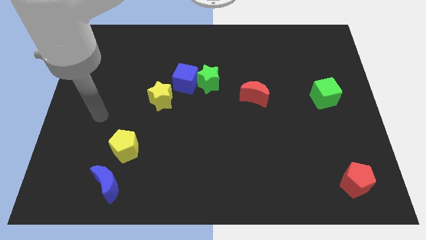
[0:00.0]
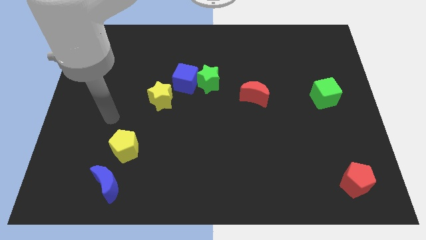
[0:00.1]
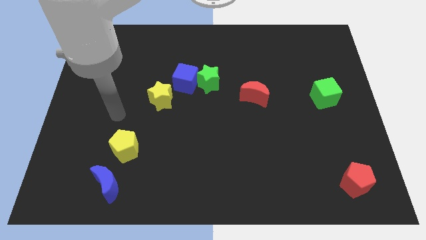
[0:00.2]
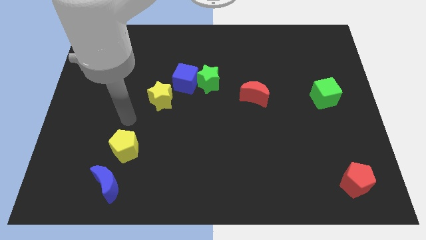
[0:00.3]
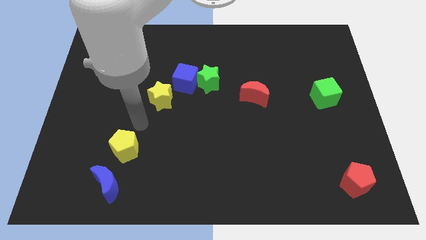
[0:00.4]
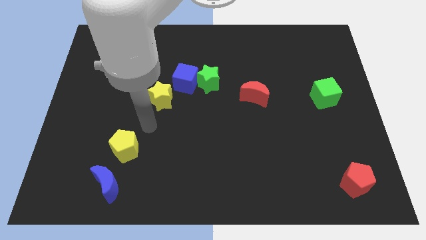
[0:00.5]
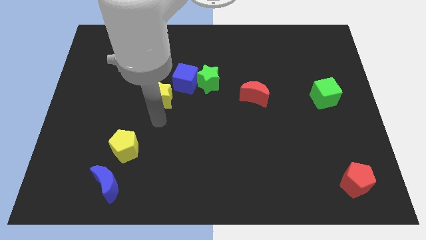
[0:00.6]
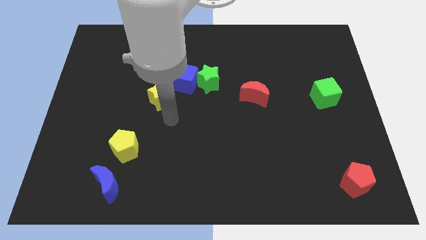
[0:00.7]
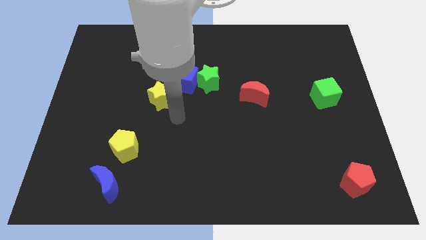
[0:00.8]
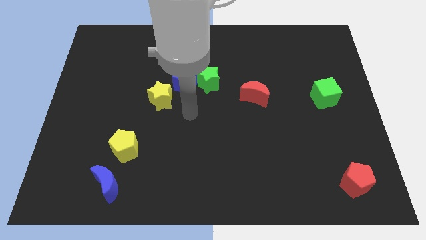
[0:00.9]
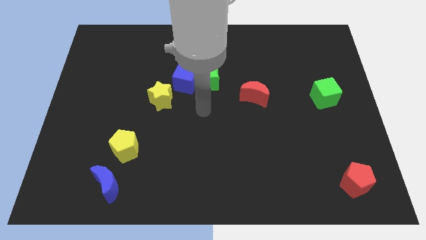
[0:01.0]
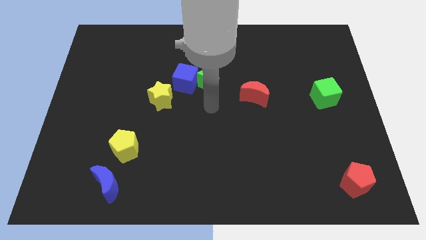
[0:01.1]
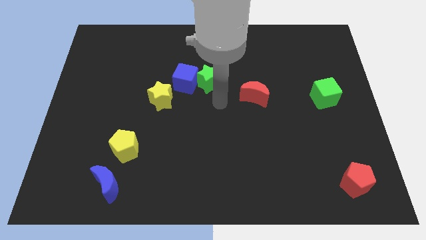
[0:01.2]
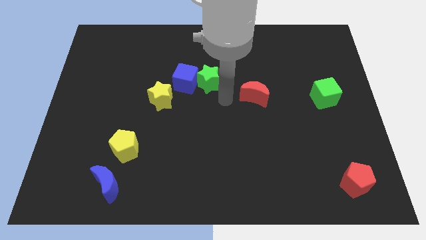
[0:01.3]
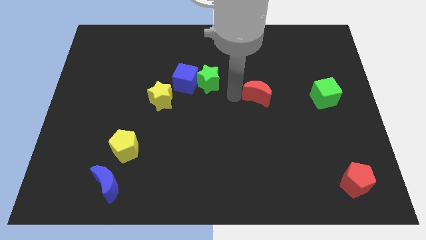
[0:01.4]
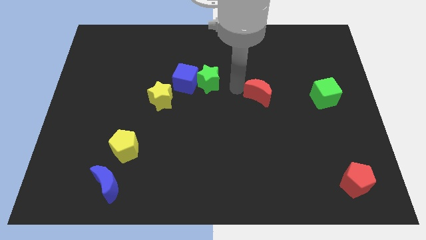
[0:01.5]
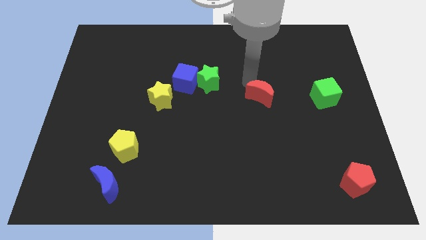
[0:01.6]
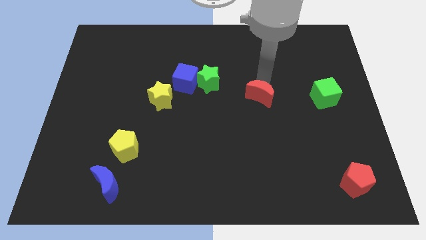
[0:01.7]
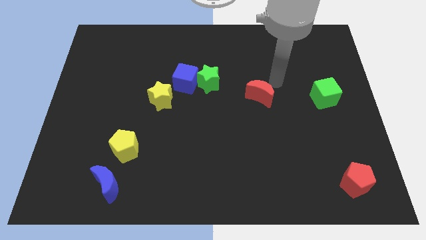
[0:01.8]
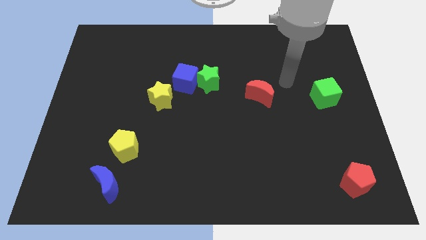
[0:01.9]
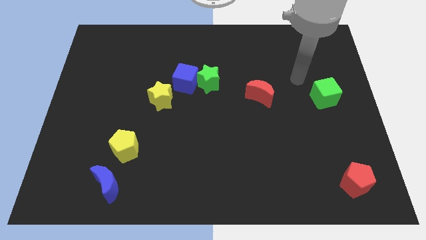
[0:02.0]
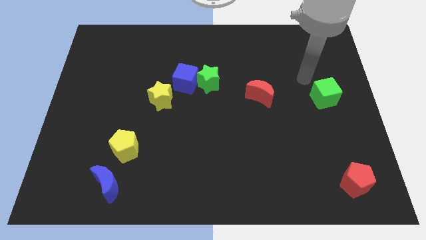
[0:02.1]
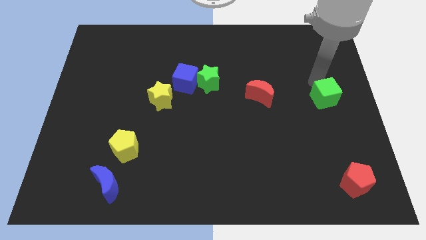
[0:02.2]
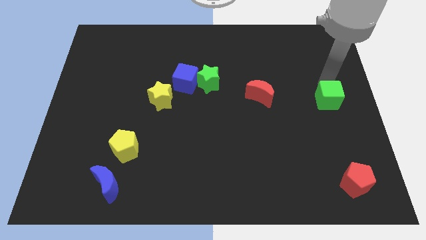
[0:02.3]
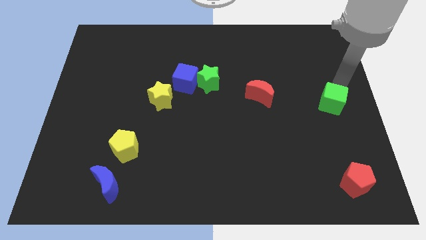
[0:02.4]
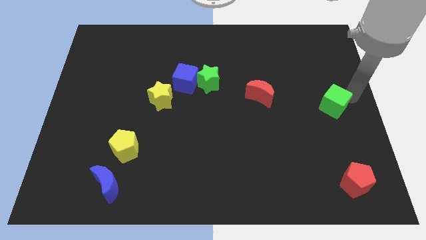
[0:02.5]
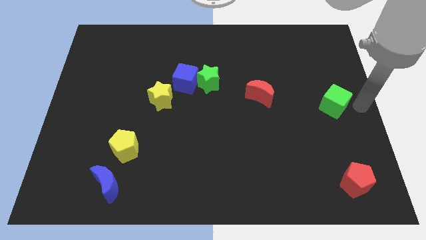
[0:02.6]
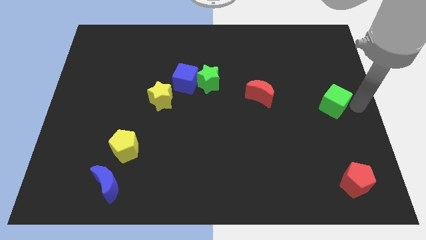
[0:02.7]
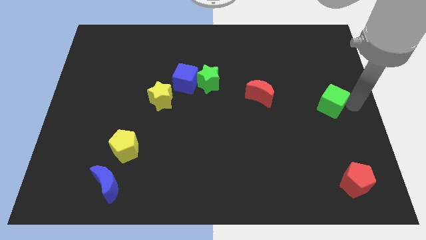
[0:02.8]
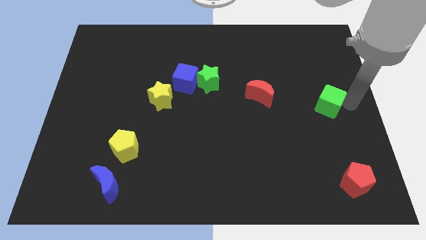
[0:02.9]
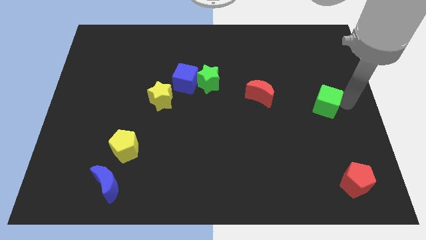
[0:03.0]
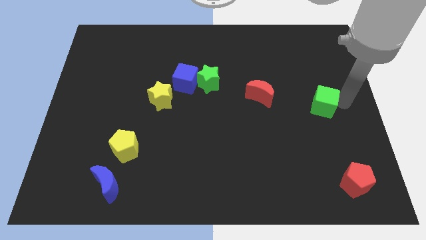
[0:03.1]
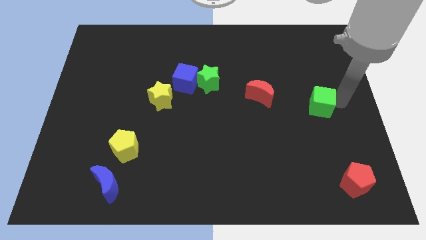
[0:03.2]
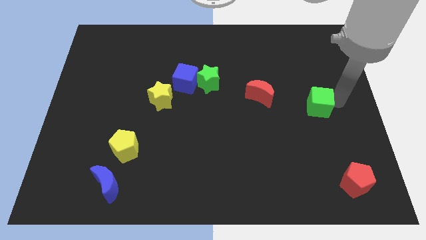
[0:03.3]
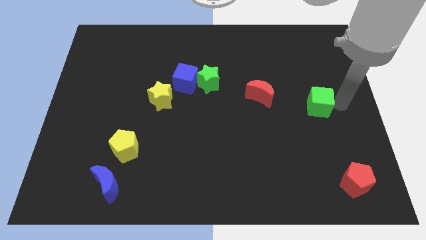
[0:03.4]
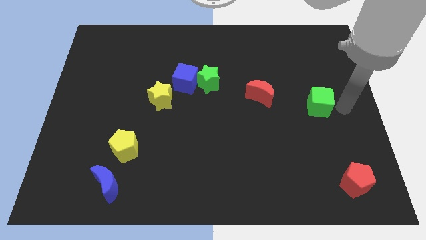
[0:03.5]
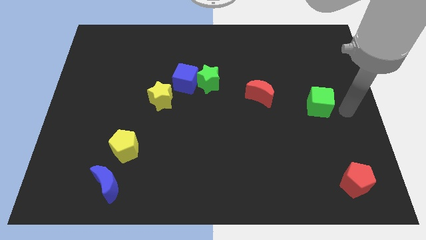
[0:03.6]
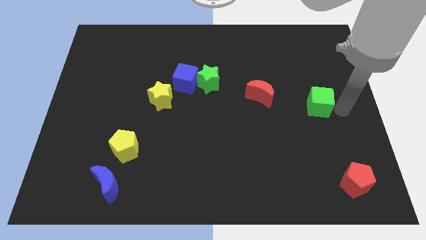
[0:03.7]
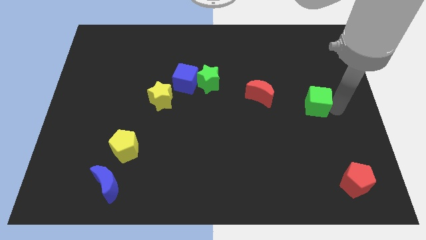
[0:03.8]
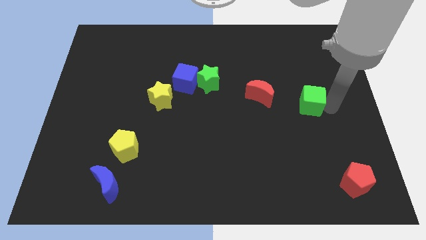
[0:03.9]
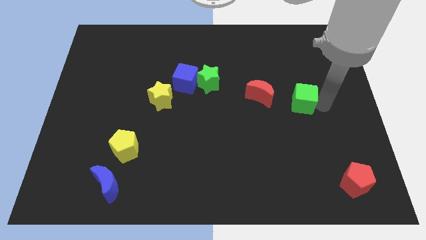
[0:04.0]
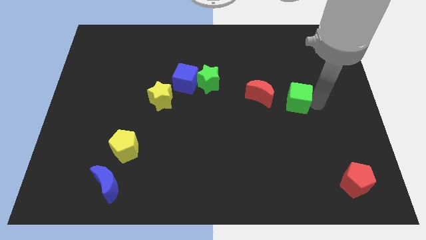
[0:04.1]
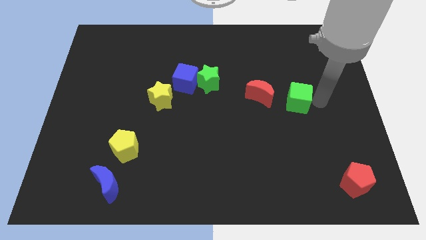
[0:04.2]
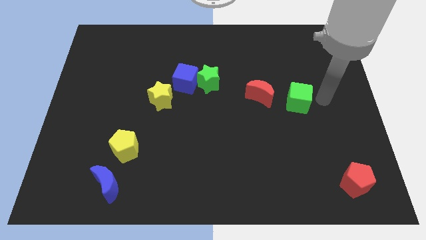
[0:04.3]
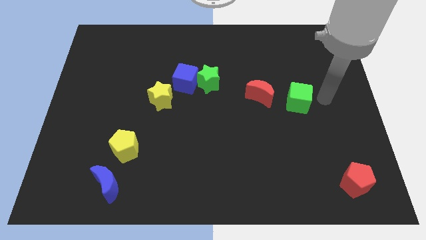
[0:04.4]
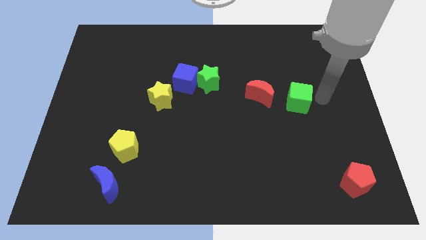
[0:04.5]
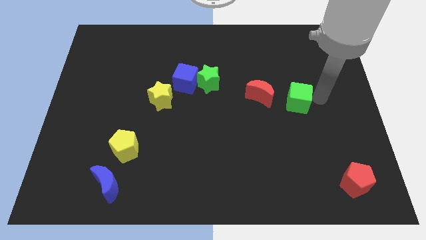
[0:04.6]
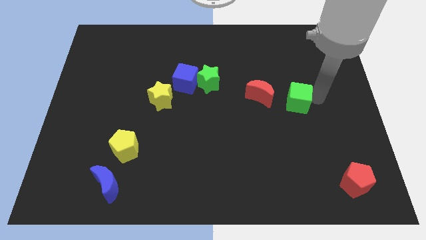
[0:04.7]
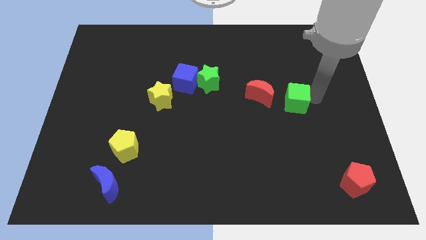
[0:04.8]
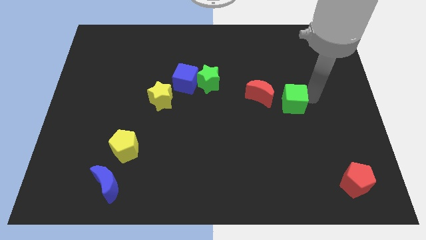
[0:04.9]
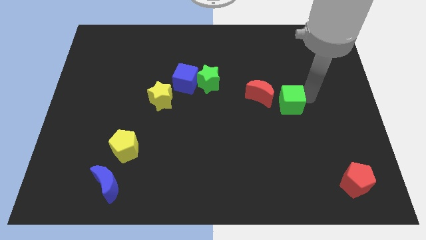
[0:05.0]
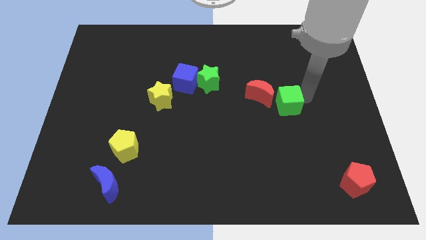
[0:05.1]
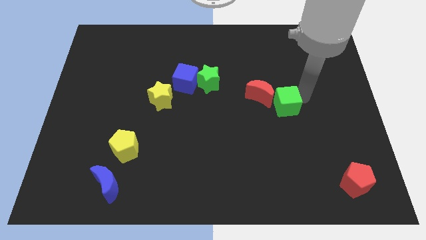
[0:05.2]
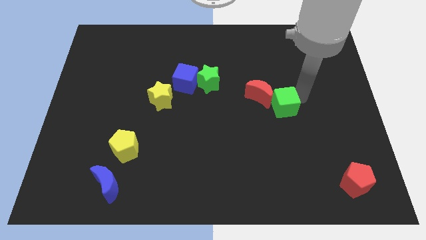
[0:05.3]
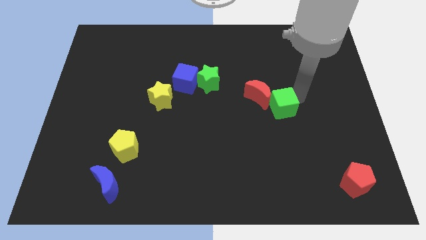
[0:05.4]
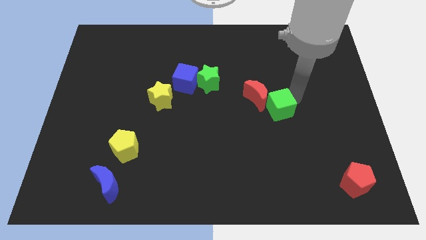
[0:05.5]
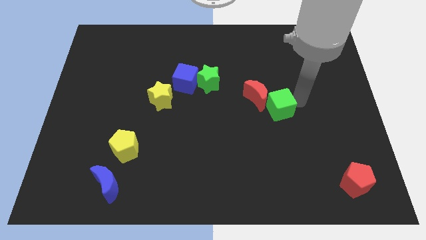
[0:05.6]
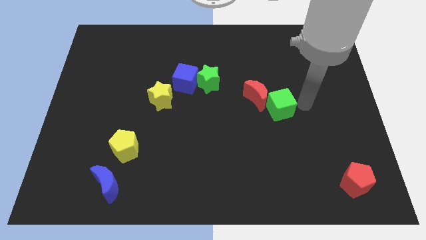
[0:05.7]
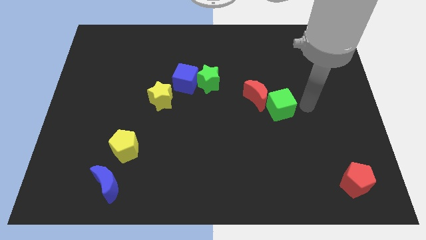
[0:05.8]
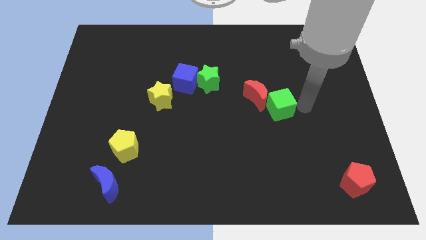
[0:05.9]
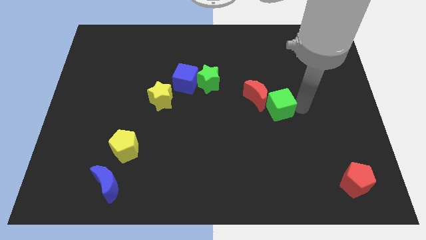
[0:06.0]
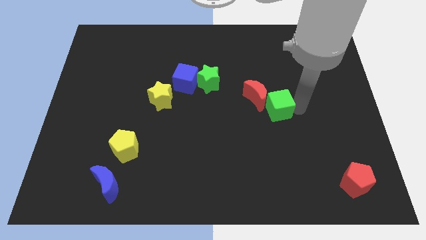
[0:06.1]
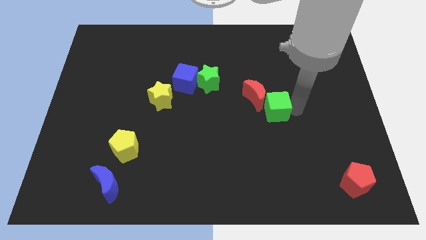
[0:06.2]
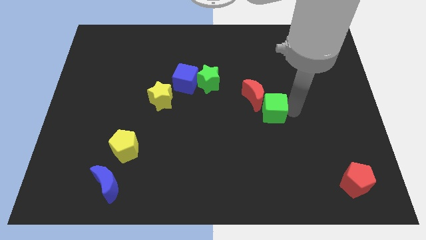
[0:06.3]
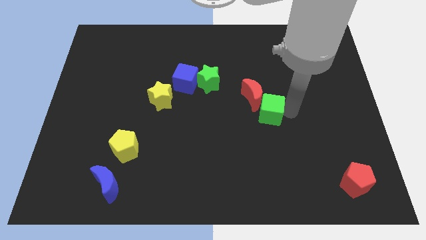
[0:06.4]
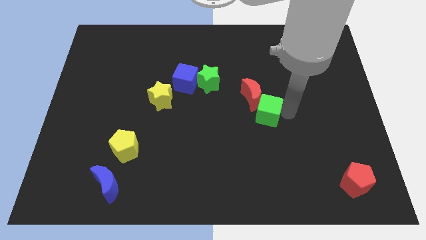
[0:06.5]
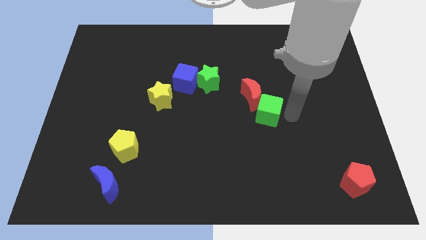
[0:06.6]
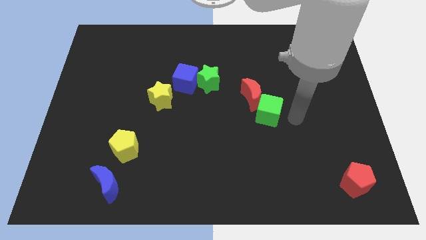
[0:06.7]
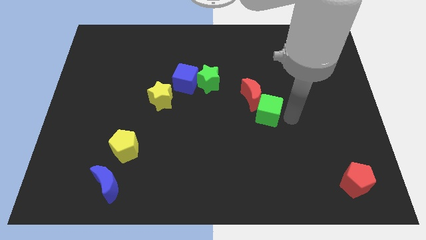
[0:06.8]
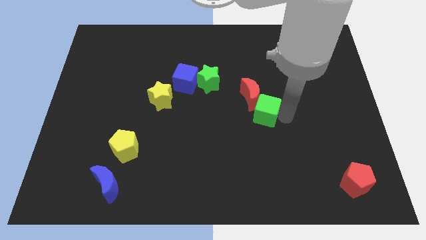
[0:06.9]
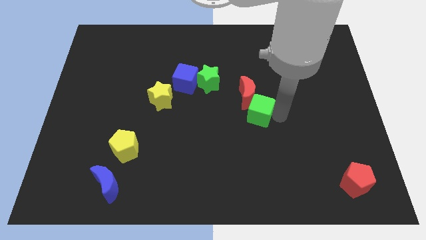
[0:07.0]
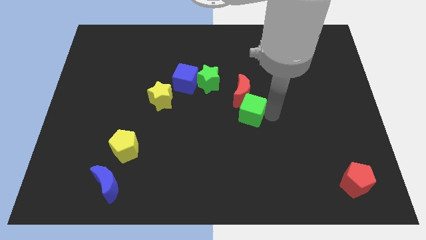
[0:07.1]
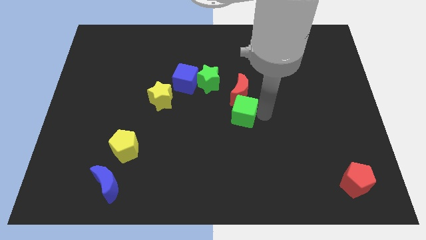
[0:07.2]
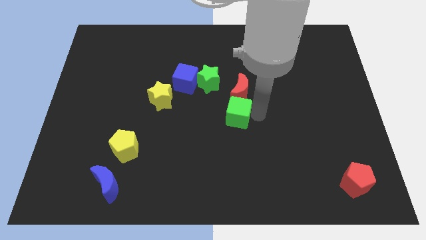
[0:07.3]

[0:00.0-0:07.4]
push the green cube to the left

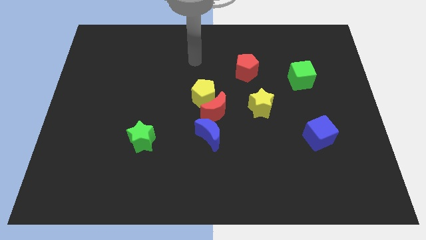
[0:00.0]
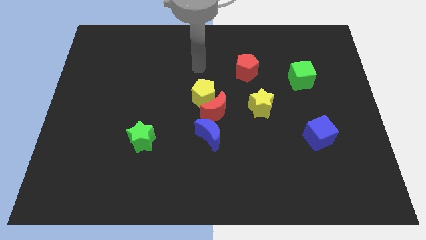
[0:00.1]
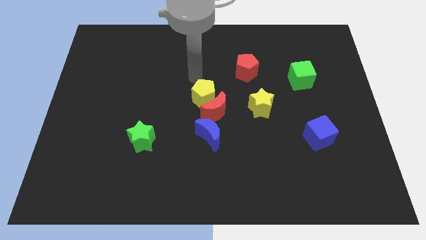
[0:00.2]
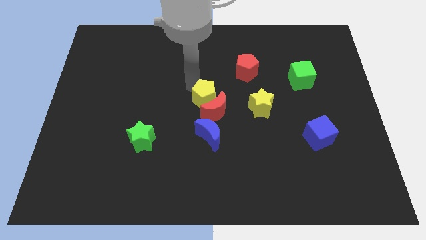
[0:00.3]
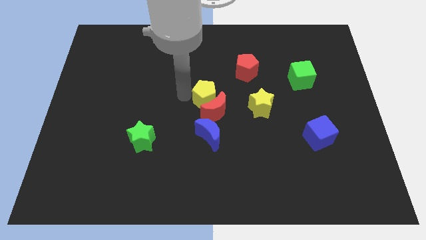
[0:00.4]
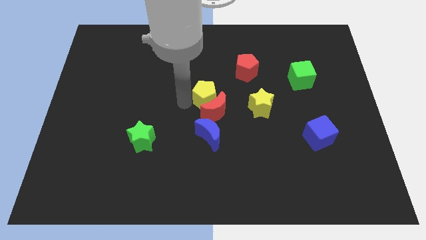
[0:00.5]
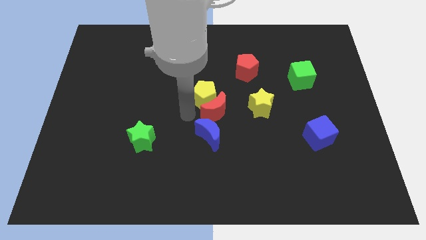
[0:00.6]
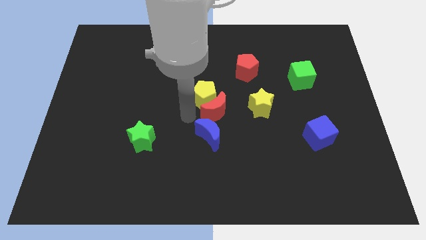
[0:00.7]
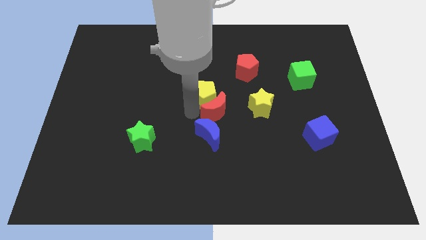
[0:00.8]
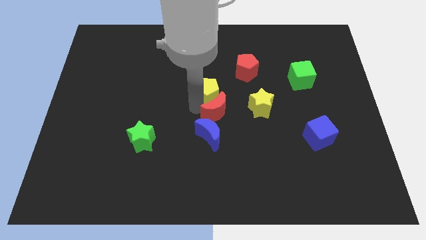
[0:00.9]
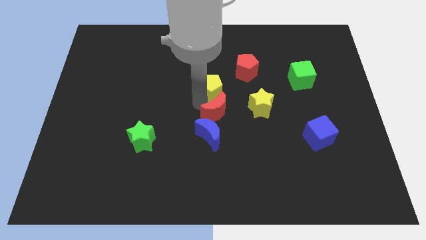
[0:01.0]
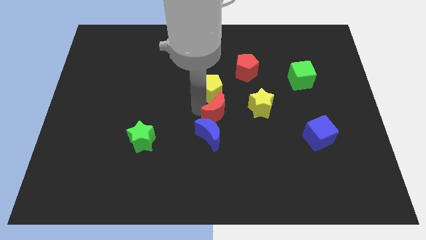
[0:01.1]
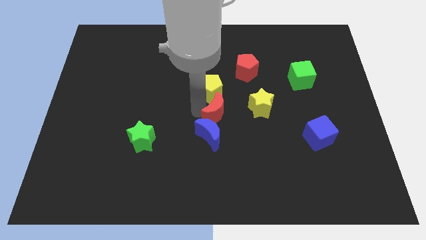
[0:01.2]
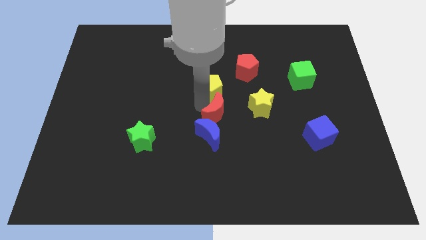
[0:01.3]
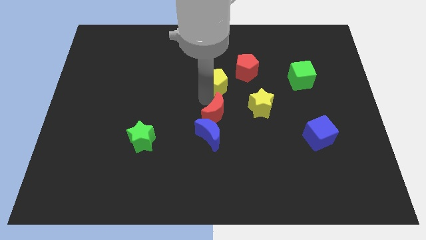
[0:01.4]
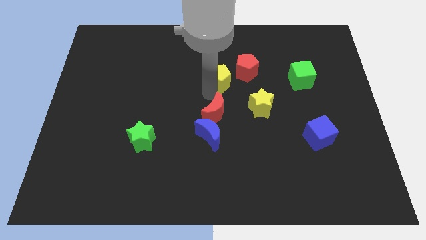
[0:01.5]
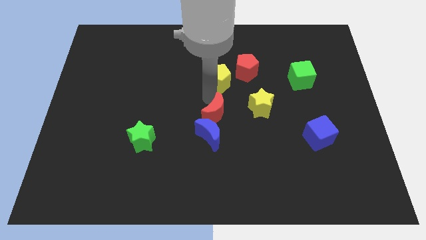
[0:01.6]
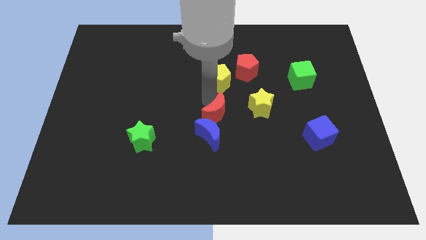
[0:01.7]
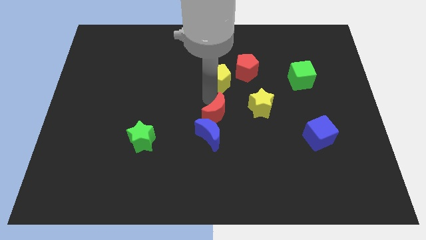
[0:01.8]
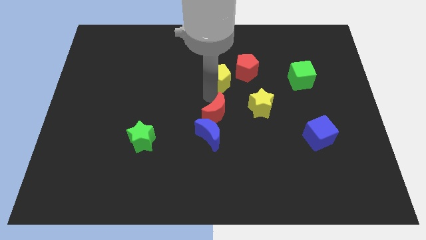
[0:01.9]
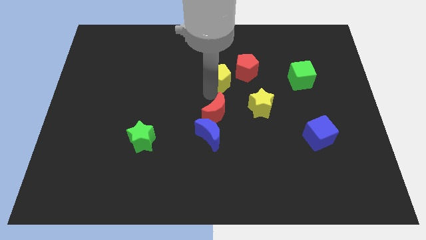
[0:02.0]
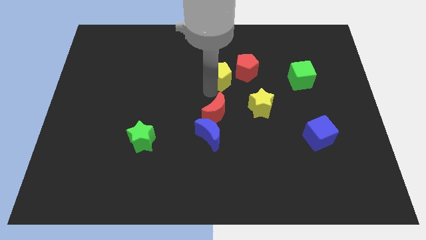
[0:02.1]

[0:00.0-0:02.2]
slightly move the yellow pentagon up and to the right
